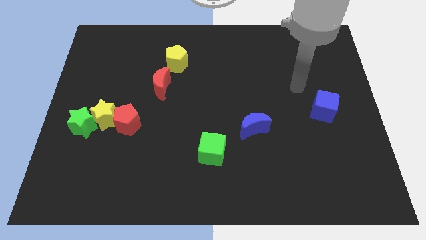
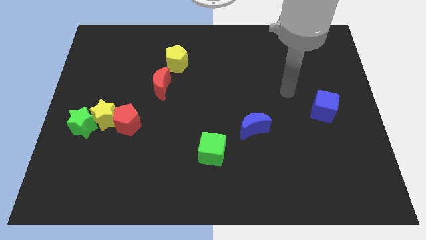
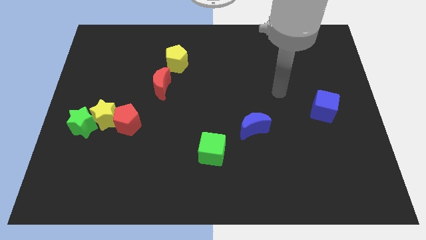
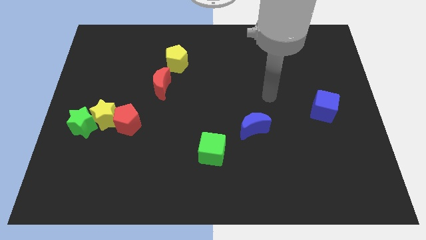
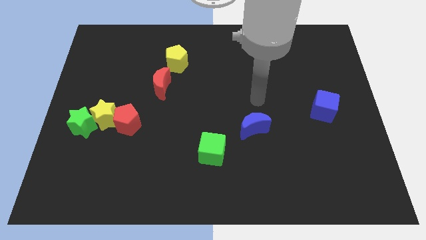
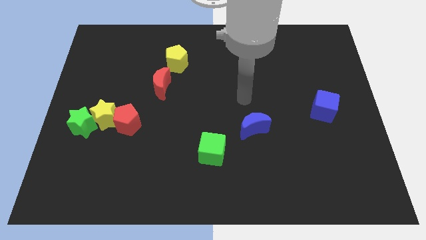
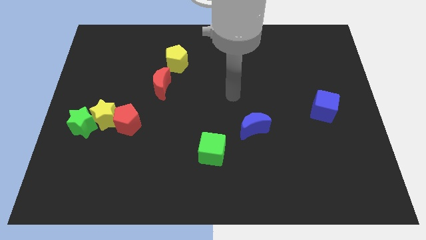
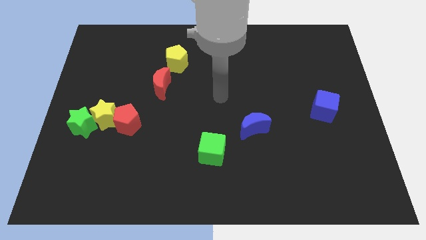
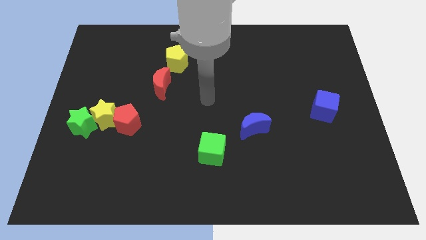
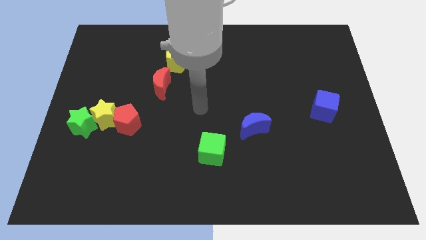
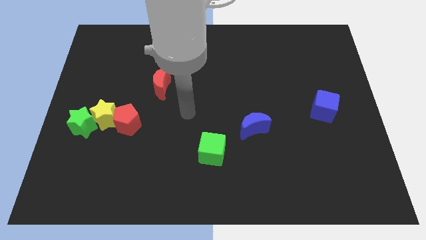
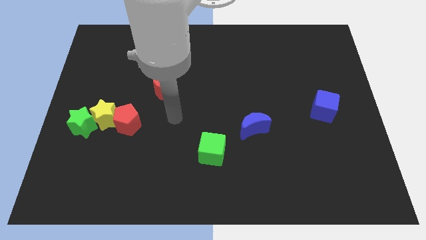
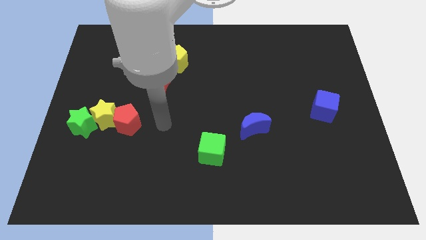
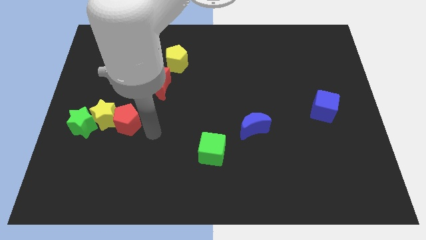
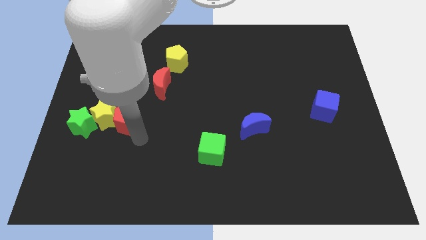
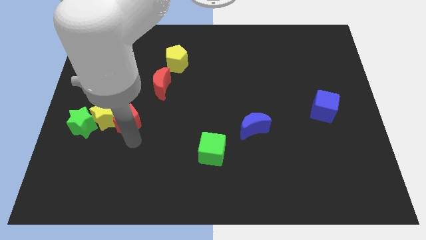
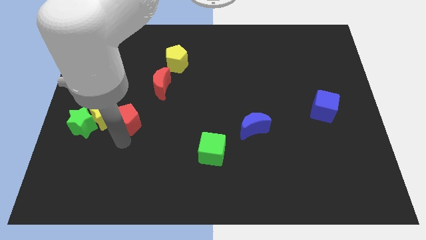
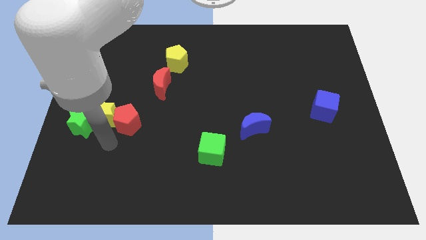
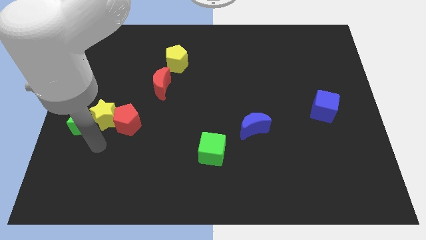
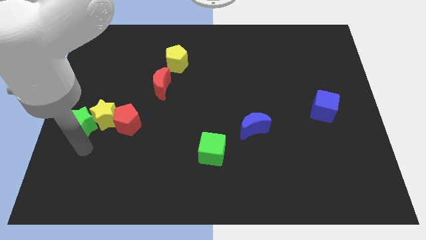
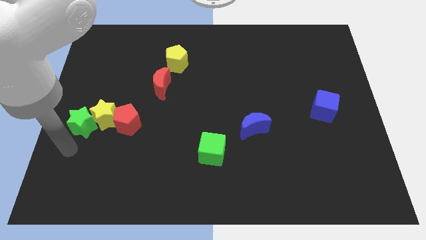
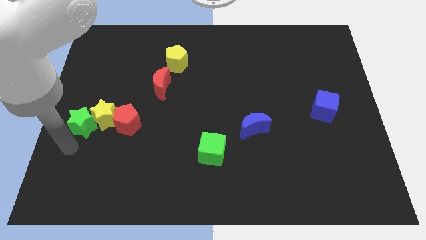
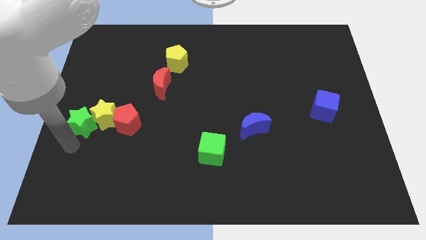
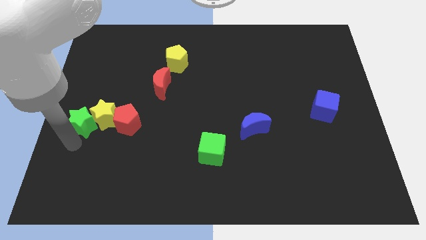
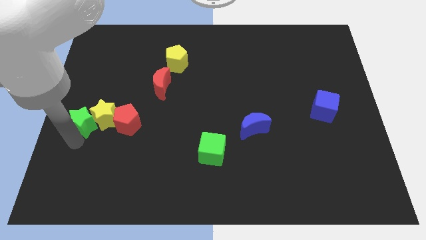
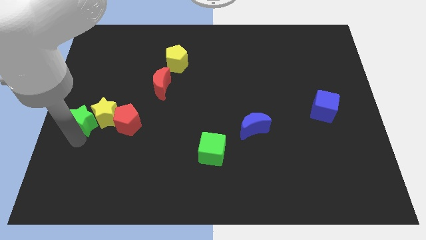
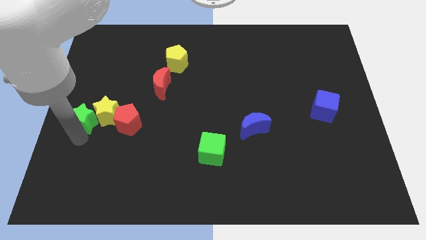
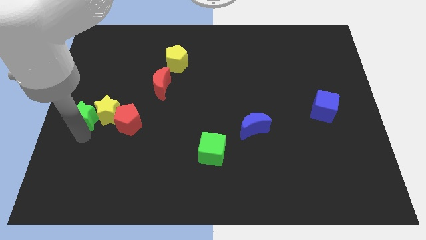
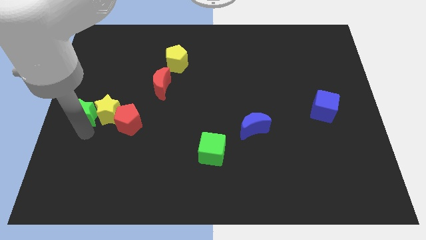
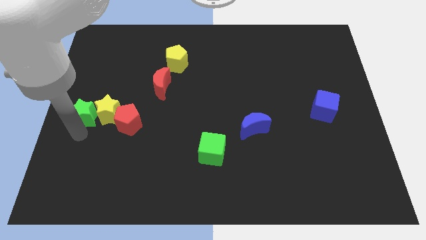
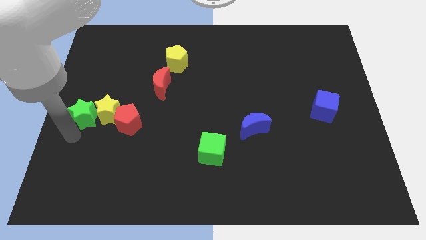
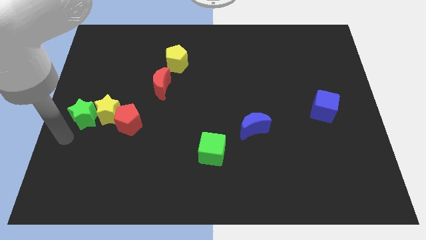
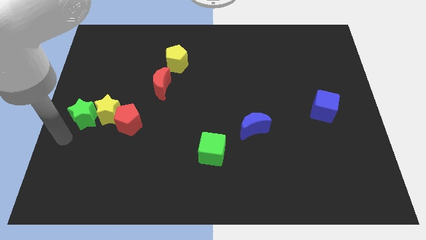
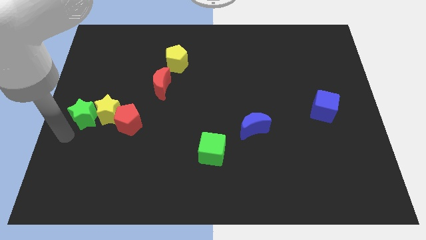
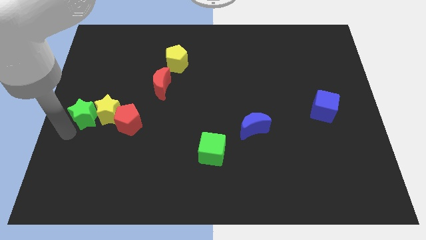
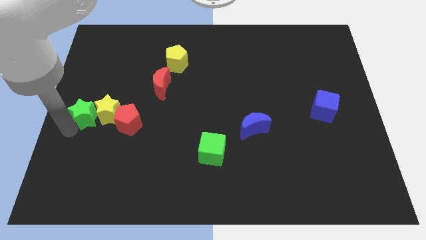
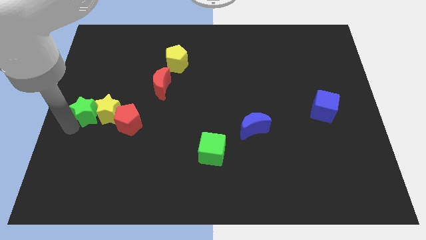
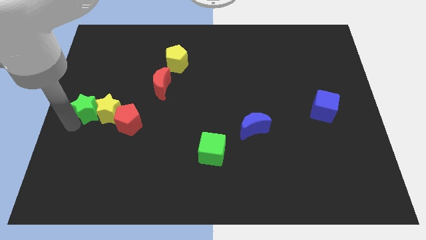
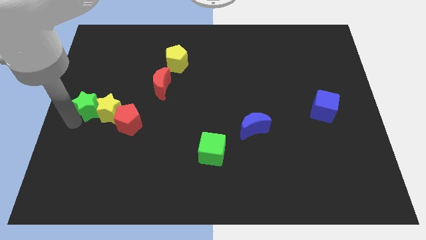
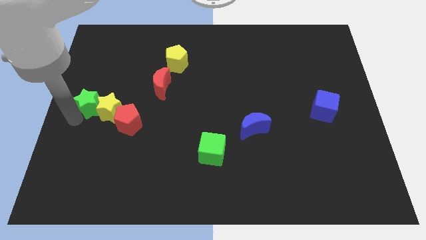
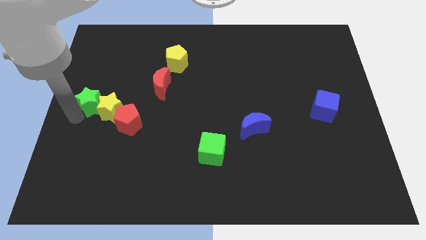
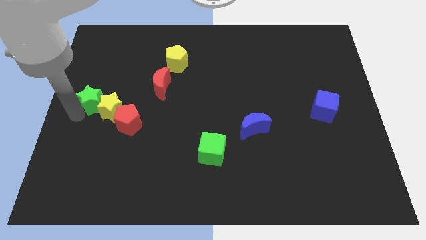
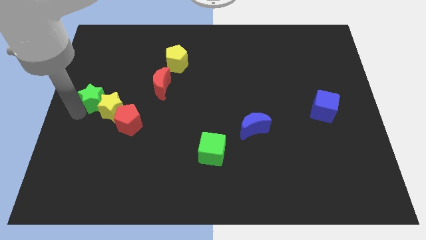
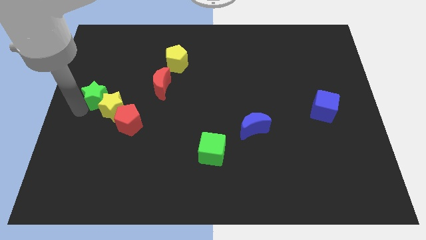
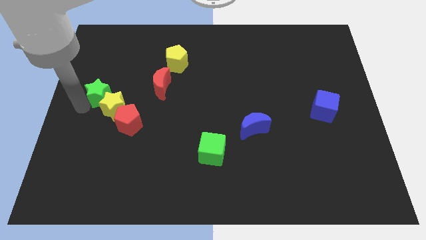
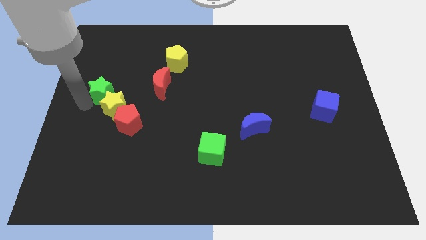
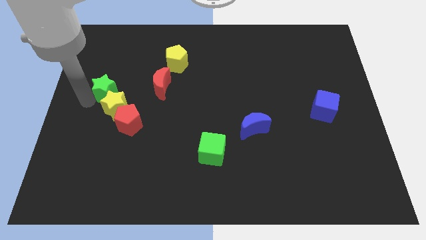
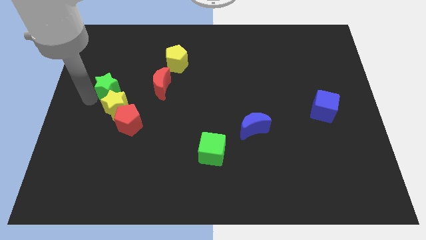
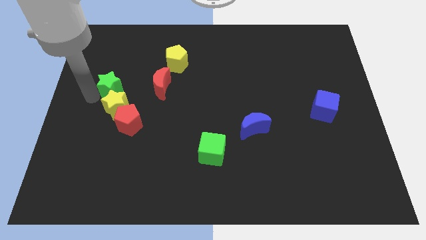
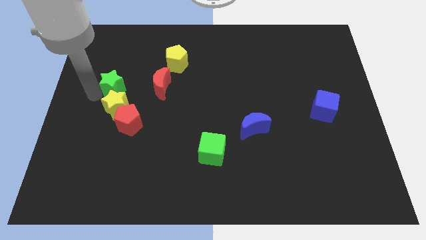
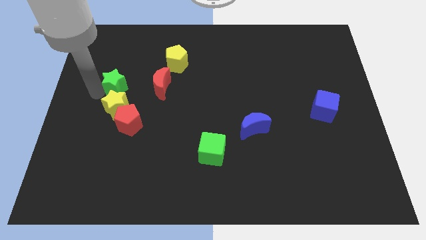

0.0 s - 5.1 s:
move the green star to the top side of the red pentagon

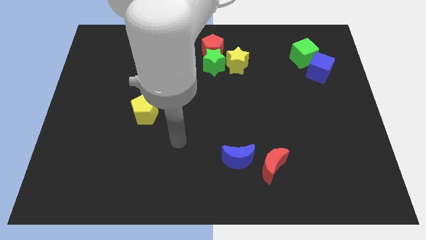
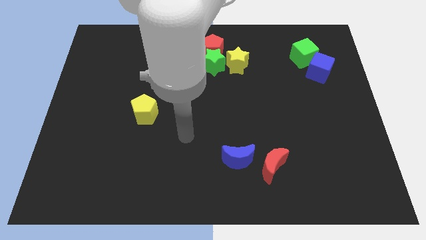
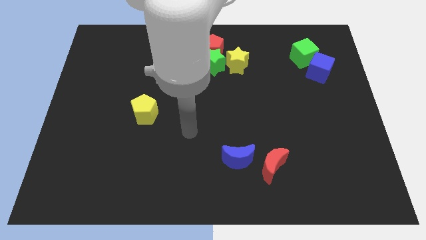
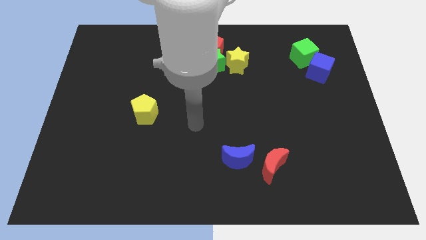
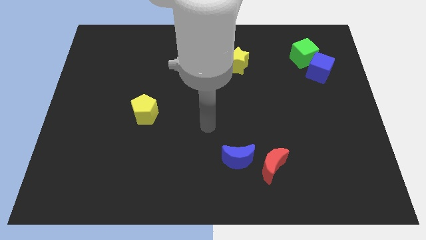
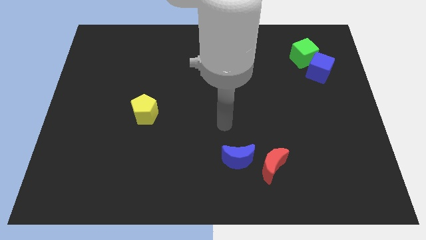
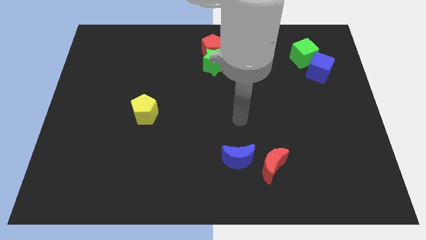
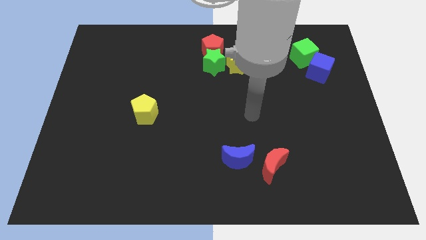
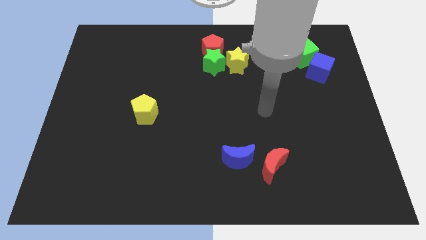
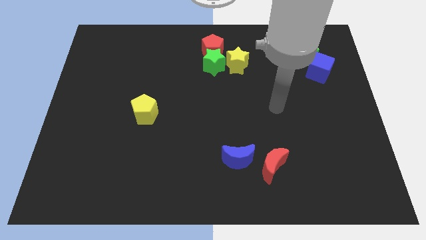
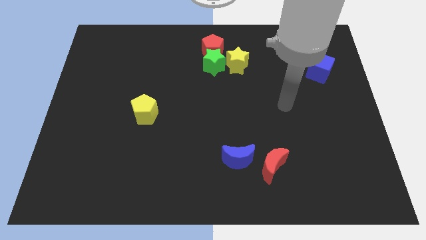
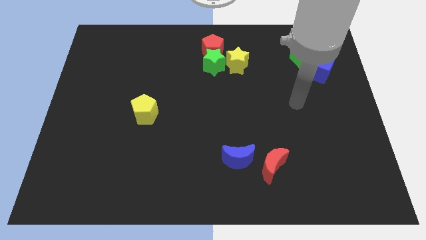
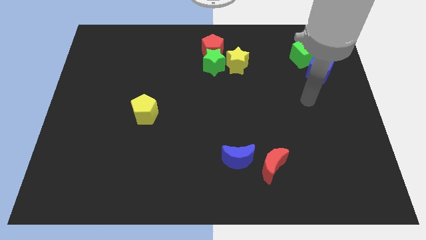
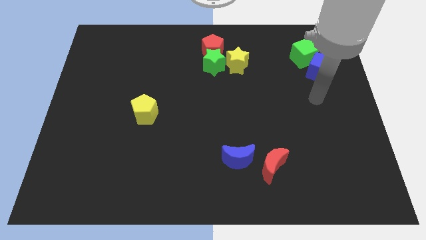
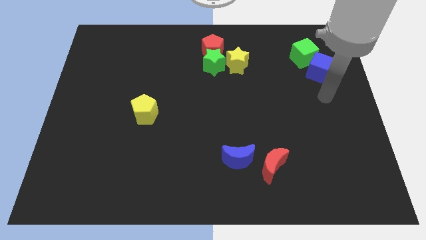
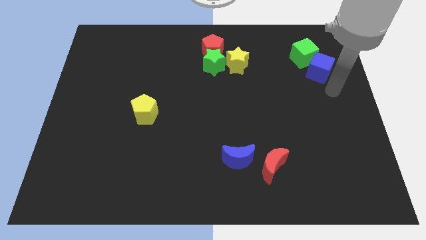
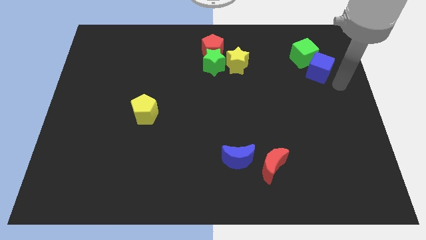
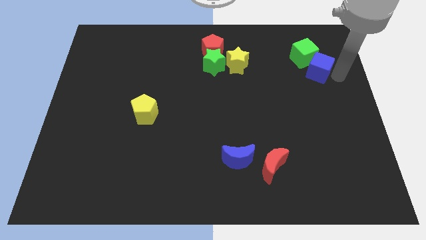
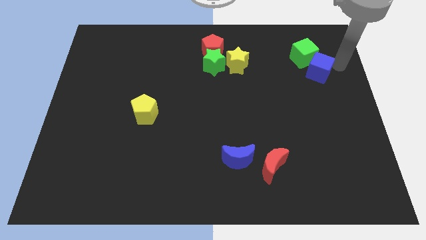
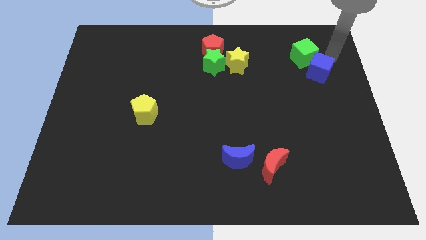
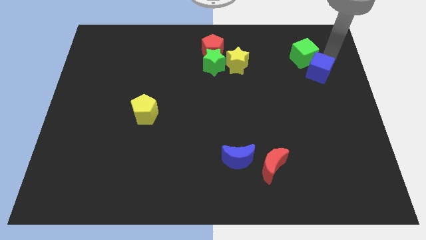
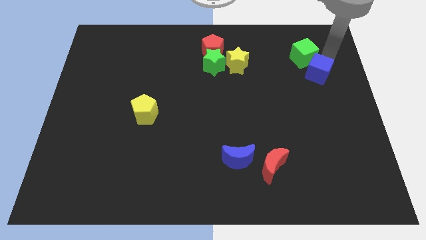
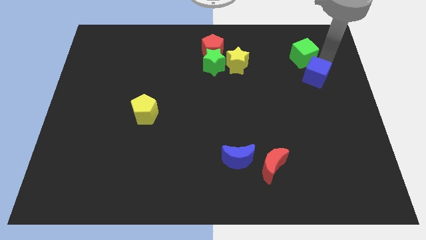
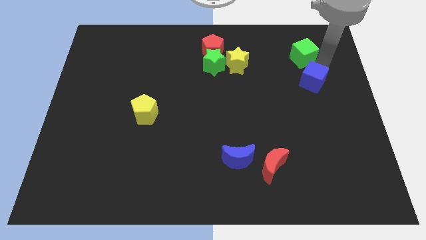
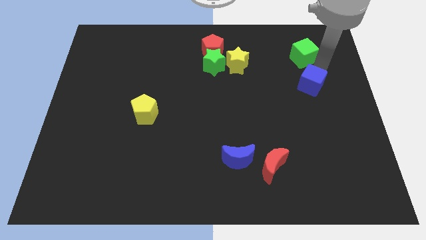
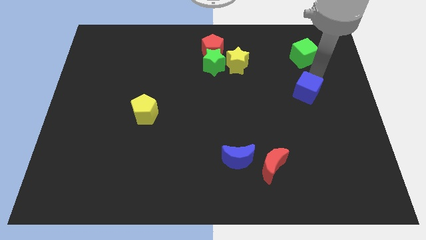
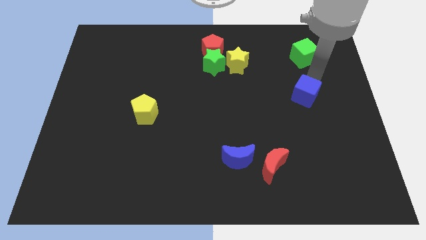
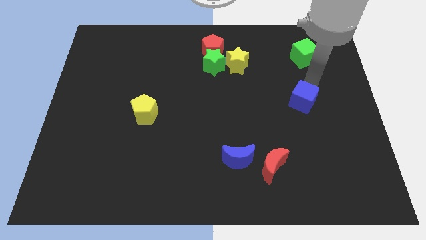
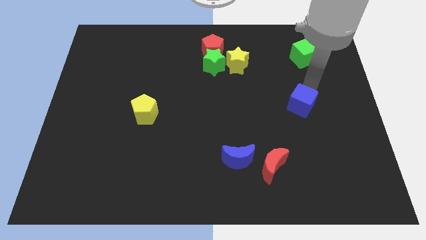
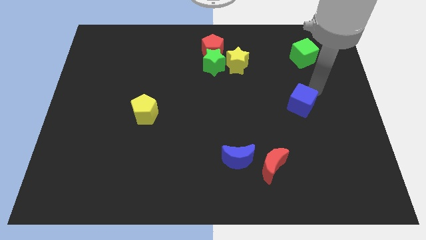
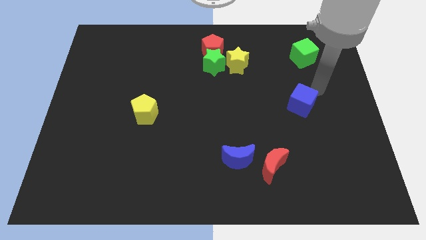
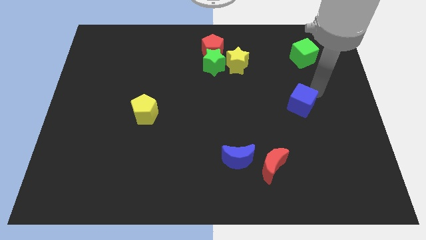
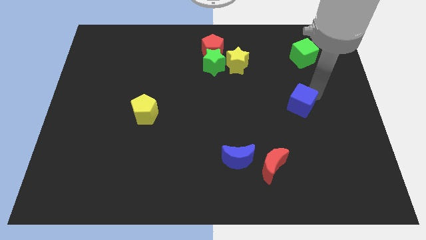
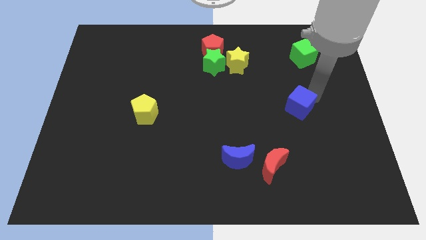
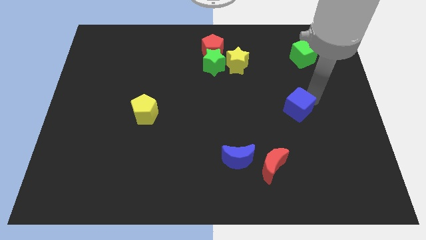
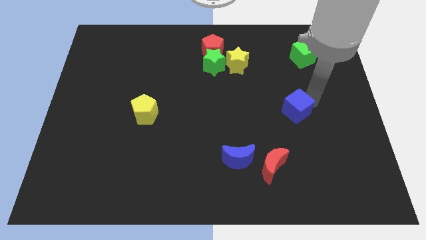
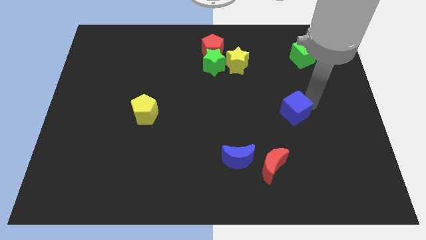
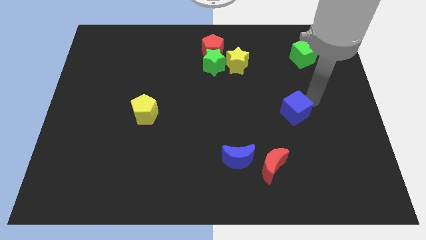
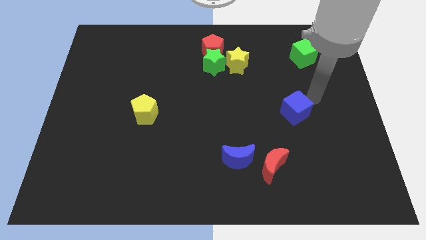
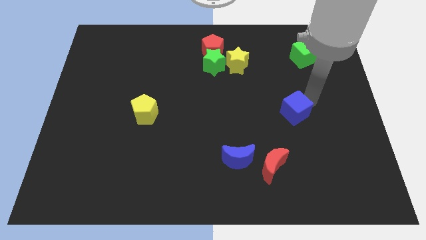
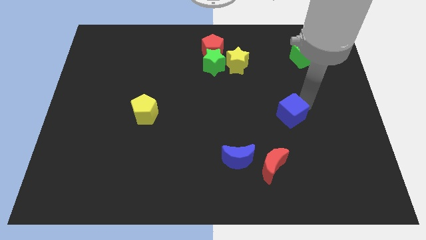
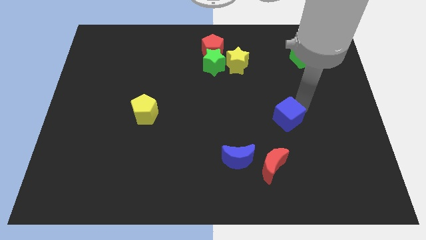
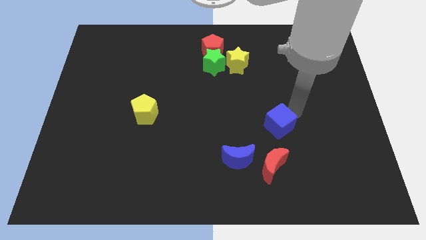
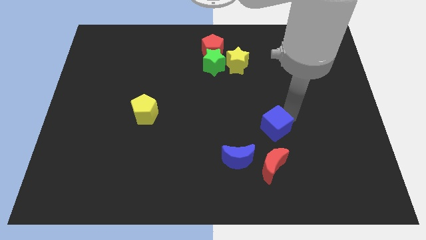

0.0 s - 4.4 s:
slide the blue cube to the top right side of the blue moon
